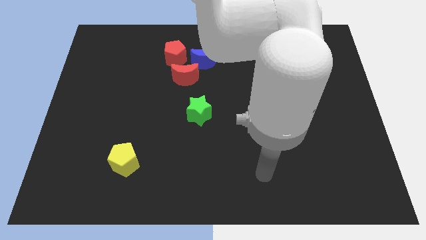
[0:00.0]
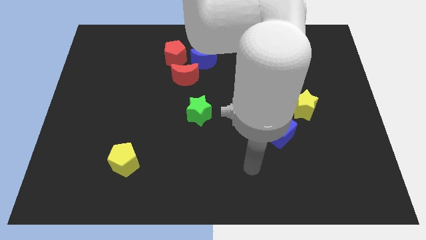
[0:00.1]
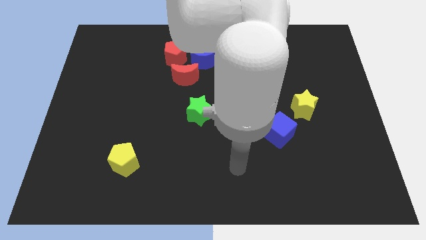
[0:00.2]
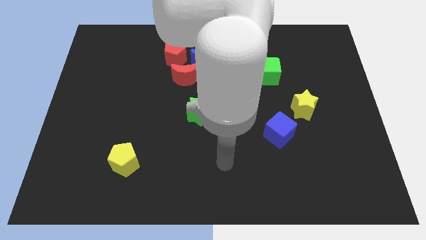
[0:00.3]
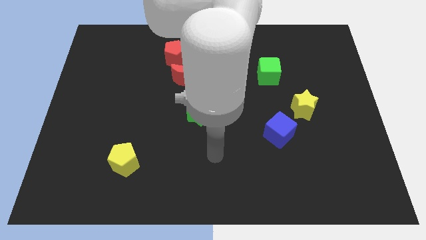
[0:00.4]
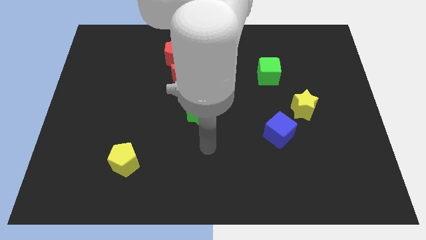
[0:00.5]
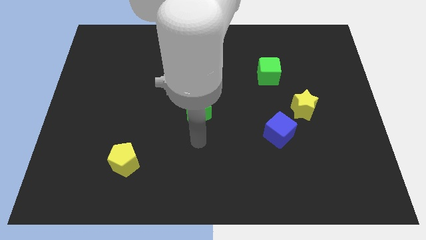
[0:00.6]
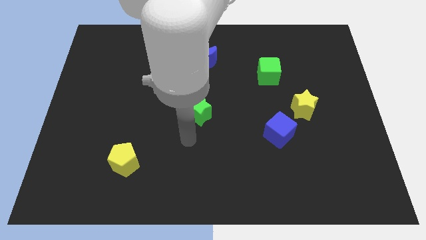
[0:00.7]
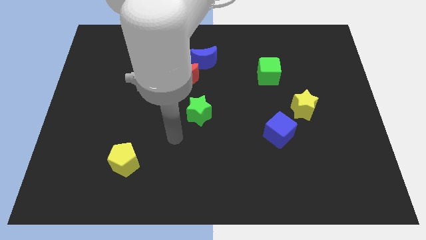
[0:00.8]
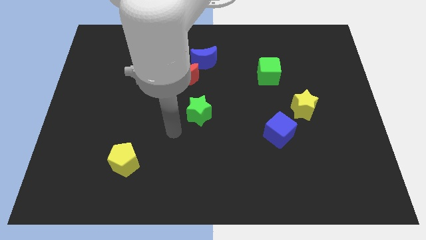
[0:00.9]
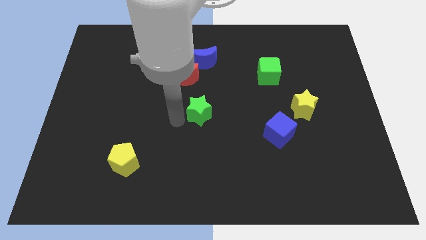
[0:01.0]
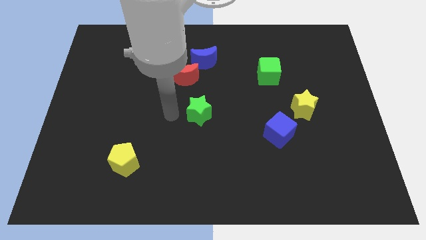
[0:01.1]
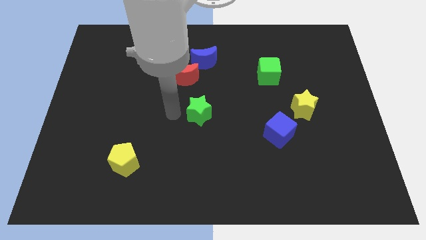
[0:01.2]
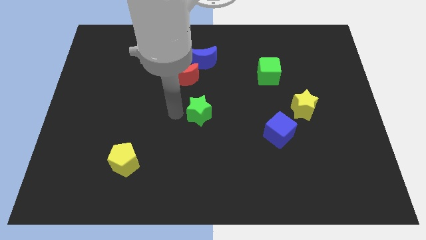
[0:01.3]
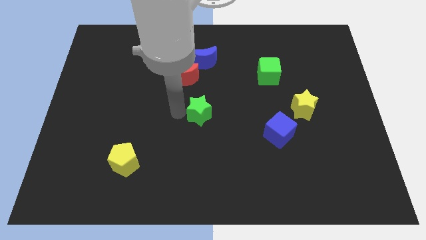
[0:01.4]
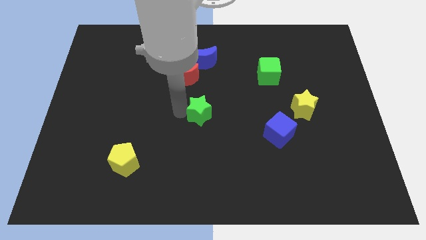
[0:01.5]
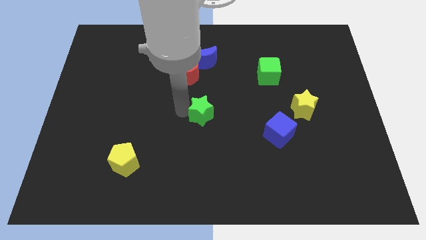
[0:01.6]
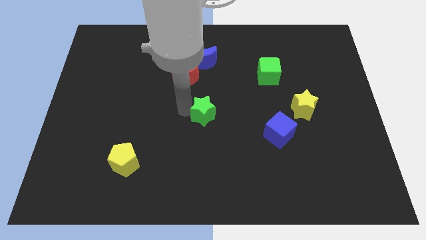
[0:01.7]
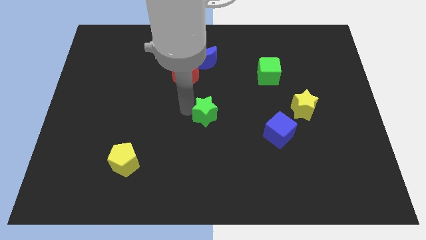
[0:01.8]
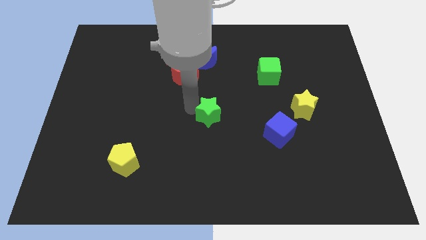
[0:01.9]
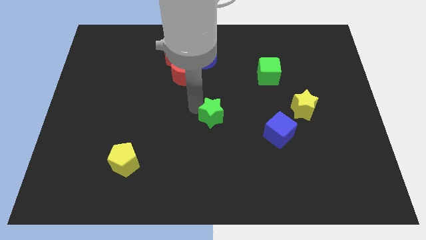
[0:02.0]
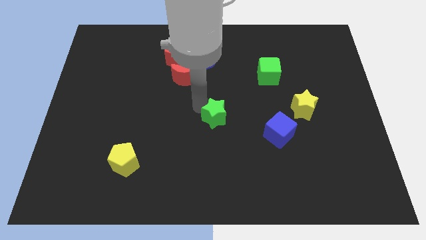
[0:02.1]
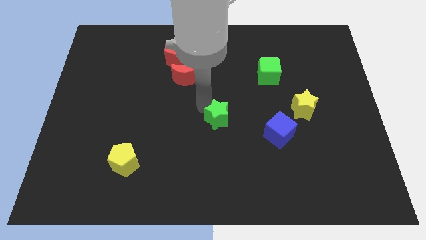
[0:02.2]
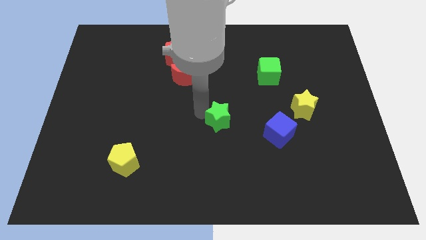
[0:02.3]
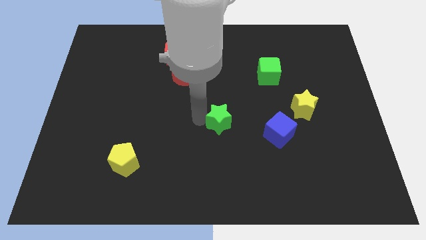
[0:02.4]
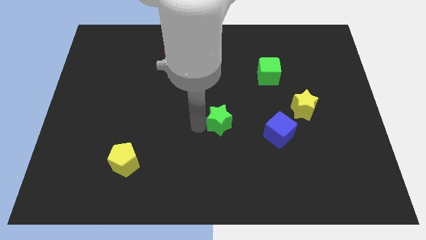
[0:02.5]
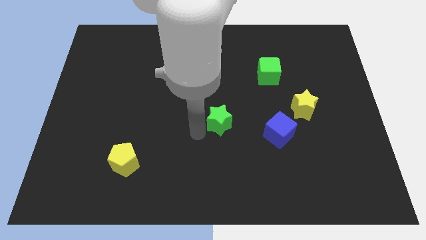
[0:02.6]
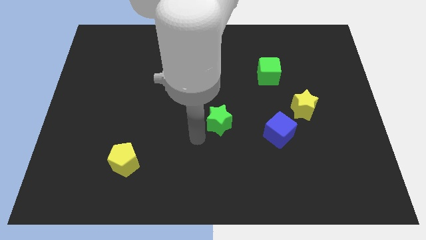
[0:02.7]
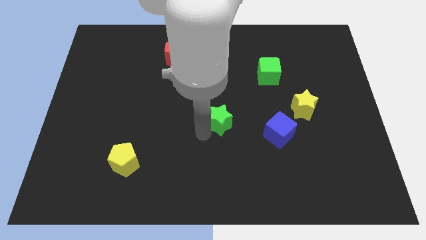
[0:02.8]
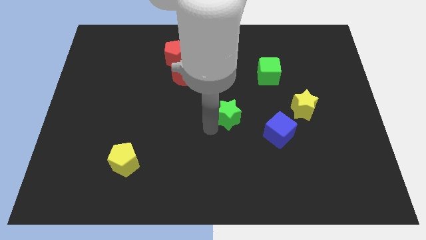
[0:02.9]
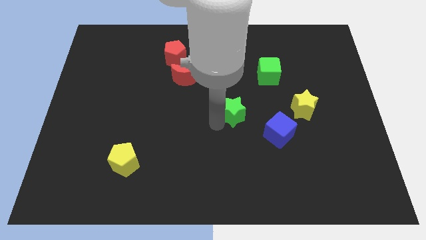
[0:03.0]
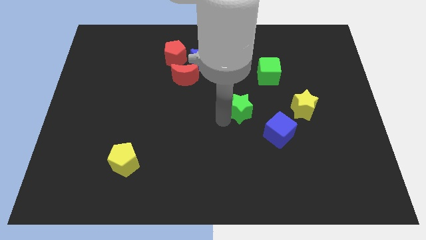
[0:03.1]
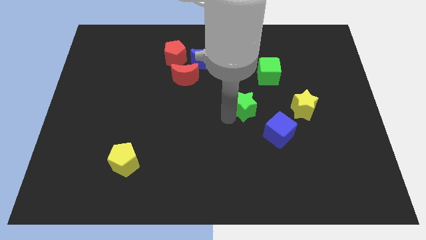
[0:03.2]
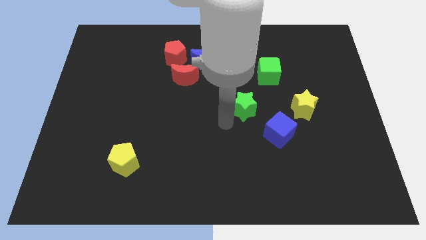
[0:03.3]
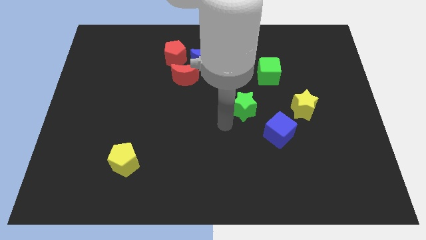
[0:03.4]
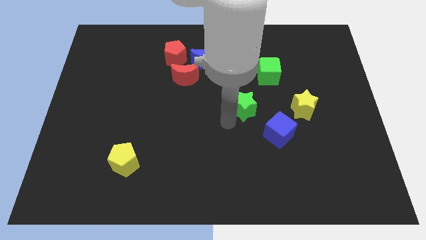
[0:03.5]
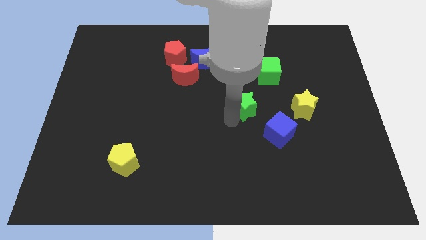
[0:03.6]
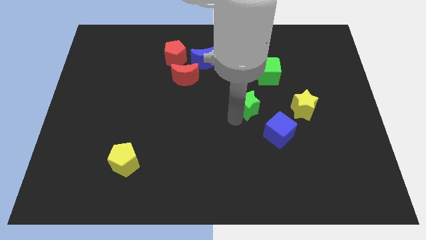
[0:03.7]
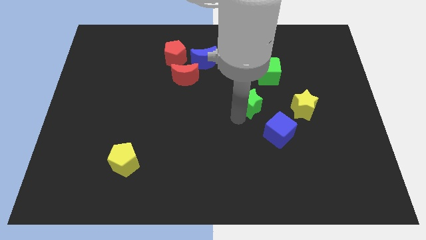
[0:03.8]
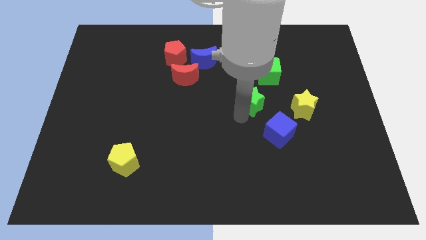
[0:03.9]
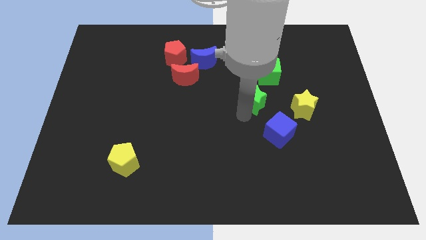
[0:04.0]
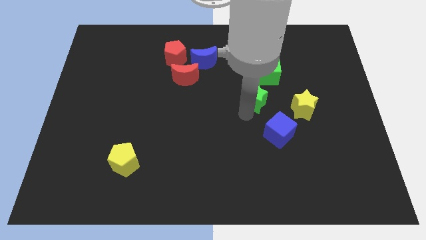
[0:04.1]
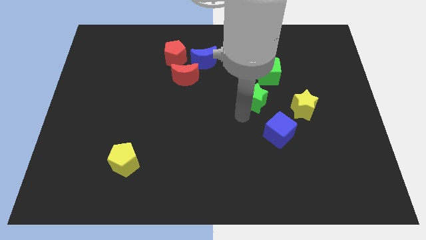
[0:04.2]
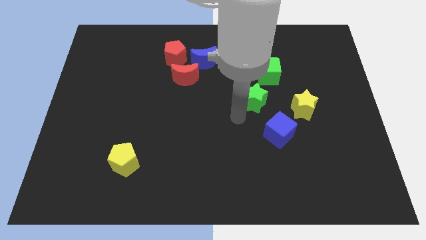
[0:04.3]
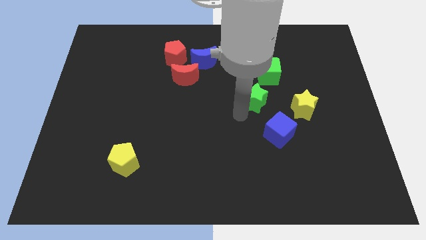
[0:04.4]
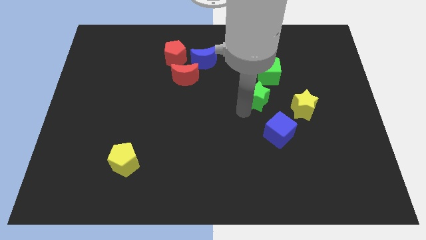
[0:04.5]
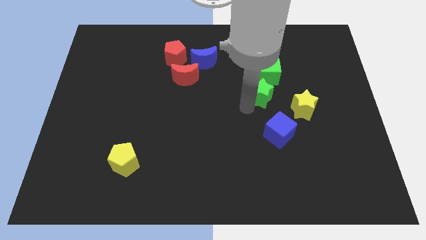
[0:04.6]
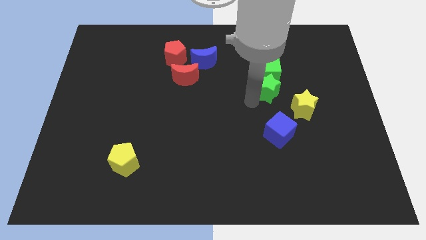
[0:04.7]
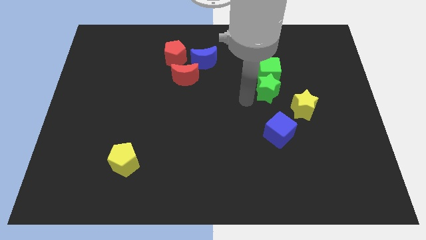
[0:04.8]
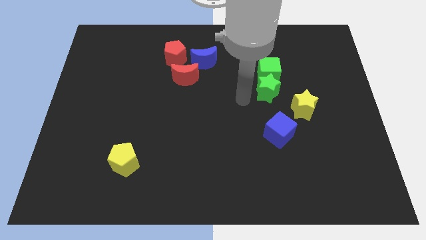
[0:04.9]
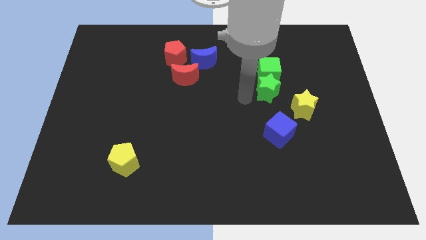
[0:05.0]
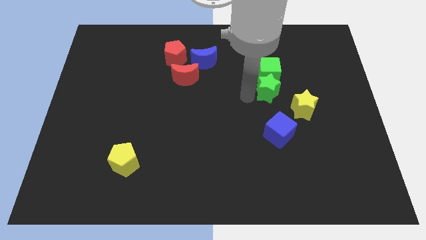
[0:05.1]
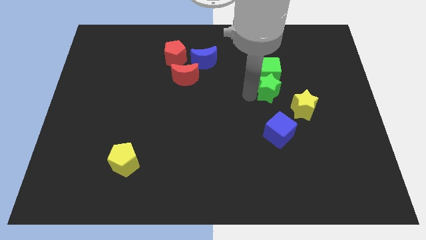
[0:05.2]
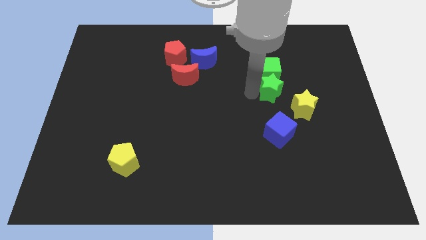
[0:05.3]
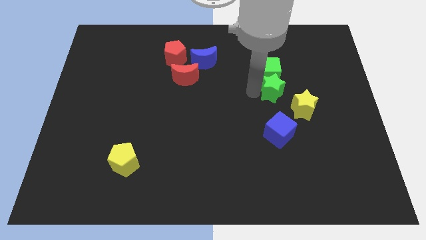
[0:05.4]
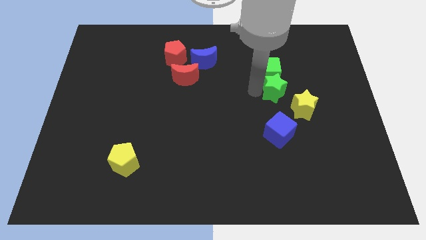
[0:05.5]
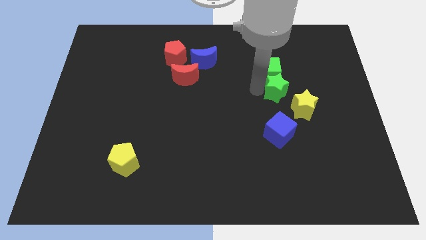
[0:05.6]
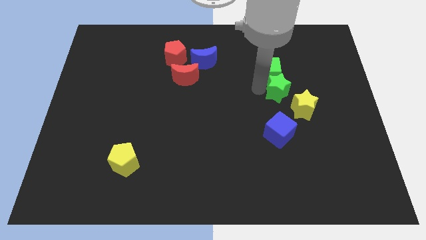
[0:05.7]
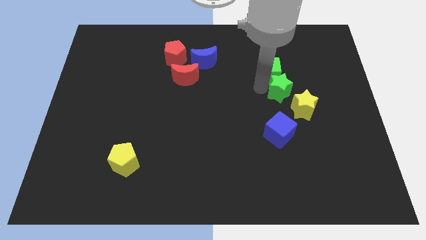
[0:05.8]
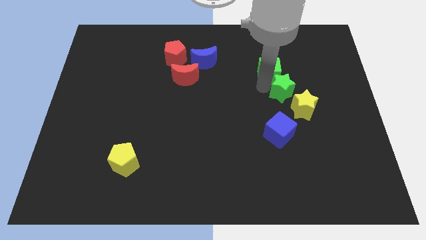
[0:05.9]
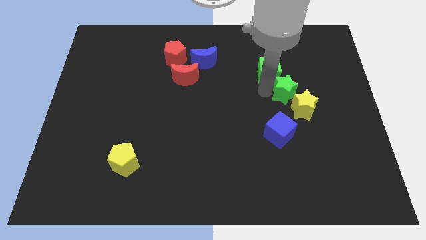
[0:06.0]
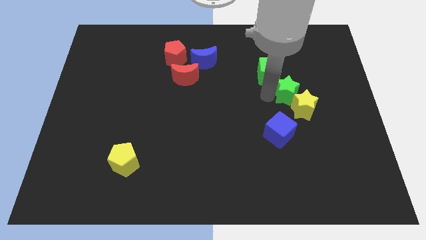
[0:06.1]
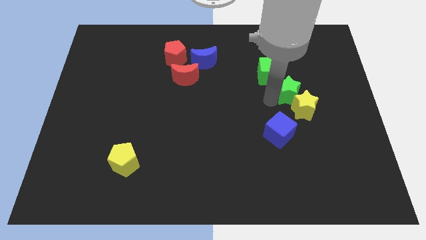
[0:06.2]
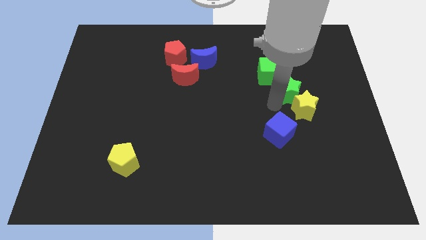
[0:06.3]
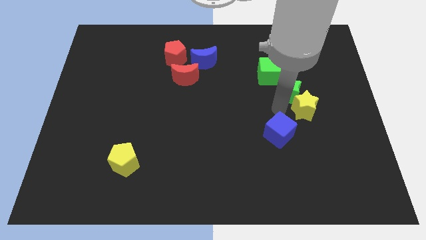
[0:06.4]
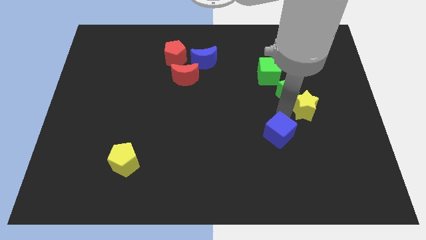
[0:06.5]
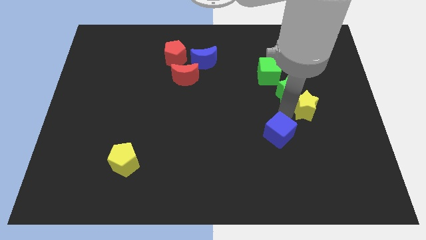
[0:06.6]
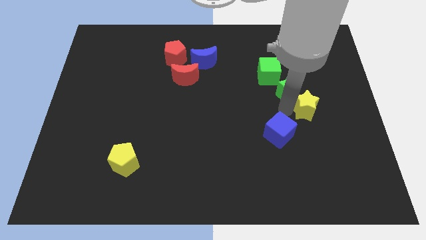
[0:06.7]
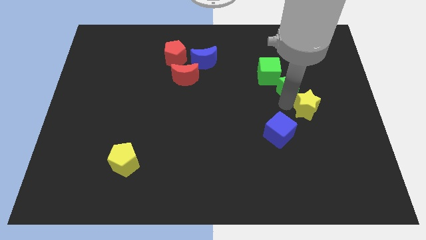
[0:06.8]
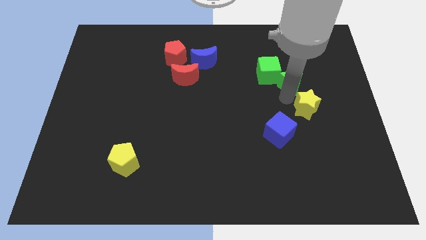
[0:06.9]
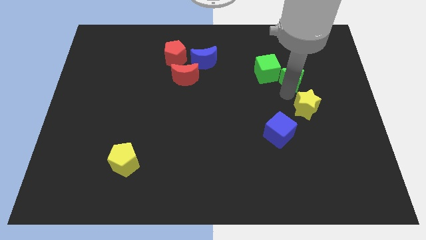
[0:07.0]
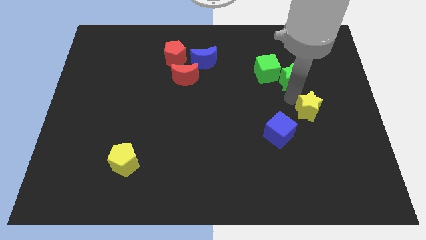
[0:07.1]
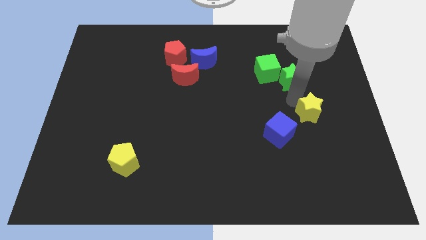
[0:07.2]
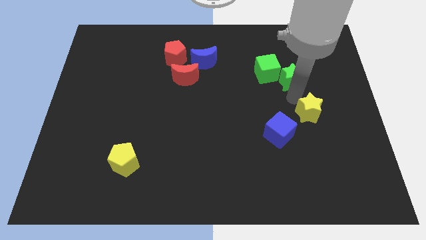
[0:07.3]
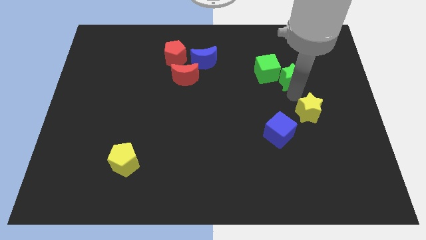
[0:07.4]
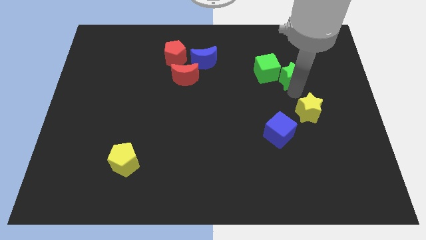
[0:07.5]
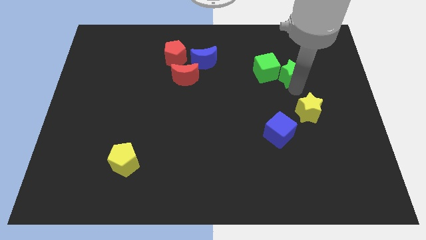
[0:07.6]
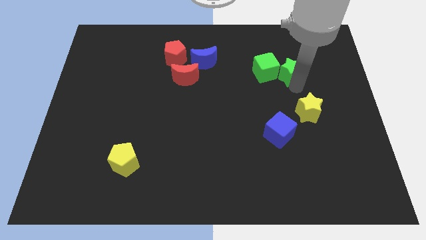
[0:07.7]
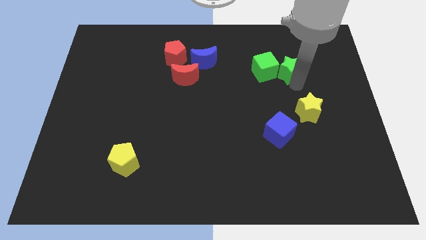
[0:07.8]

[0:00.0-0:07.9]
slide the green star to the top right side of the green cube
